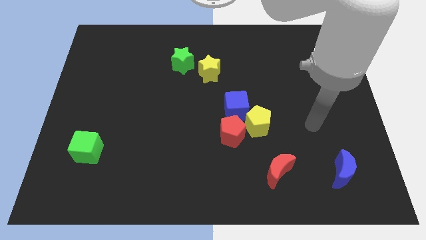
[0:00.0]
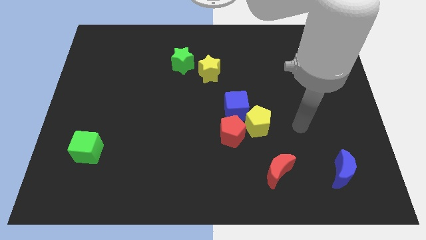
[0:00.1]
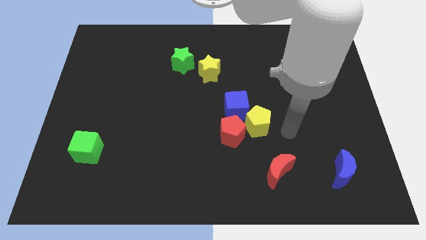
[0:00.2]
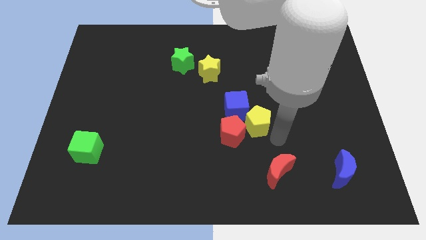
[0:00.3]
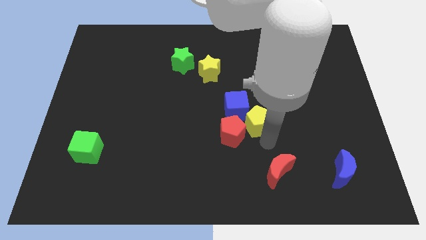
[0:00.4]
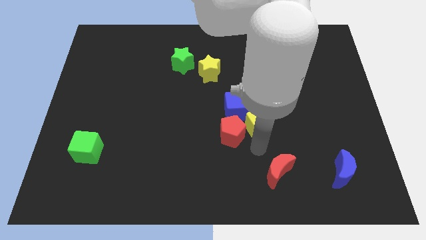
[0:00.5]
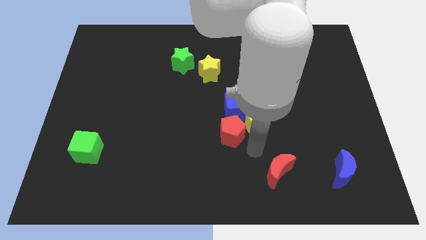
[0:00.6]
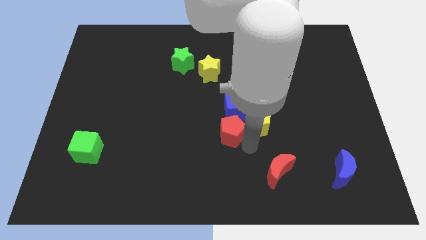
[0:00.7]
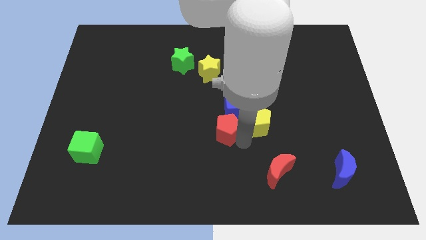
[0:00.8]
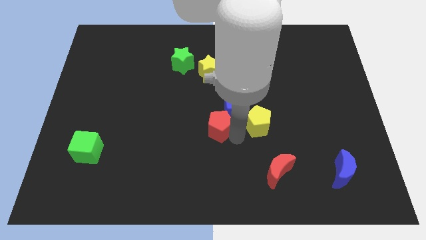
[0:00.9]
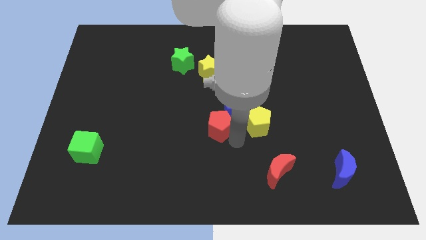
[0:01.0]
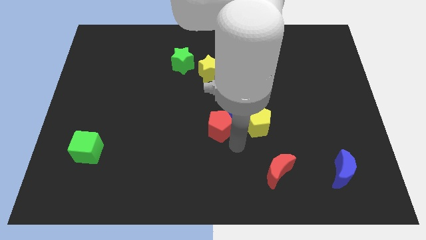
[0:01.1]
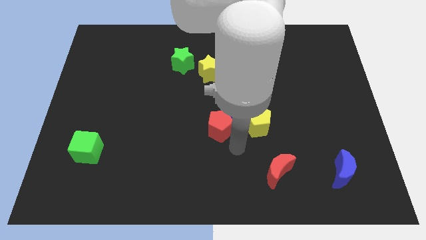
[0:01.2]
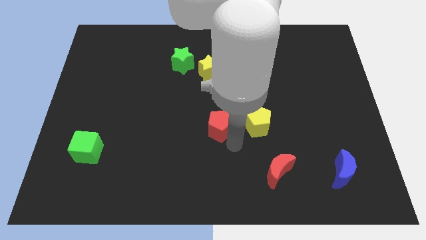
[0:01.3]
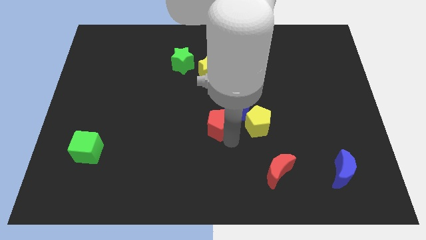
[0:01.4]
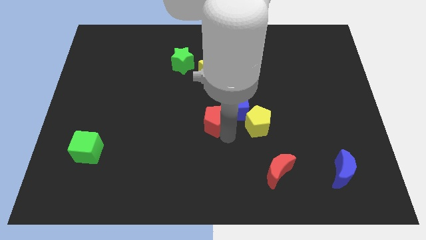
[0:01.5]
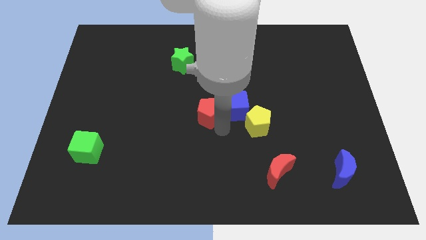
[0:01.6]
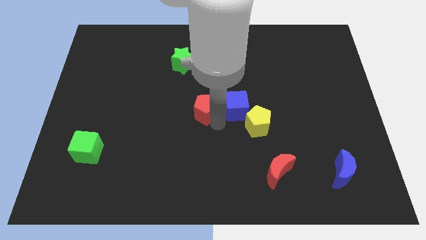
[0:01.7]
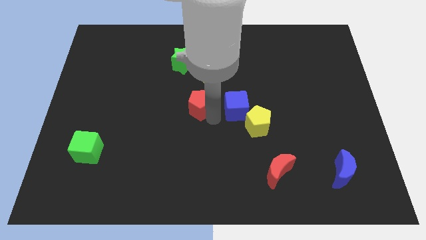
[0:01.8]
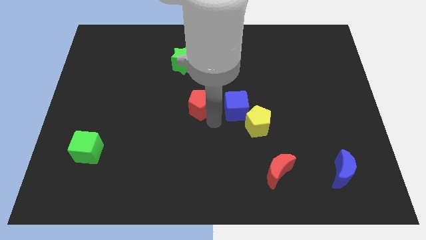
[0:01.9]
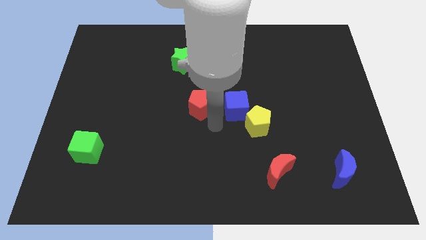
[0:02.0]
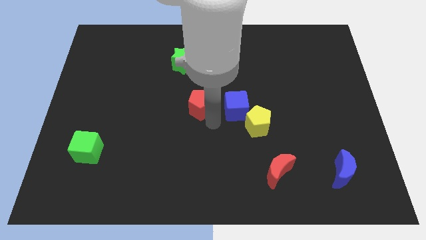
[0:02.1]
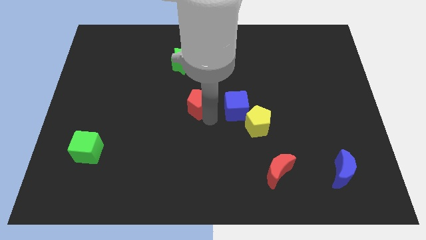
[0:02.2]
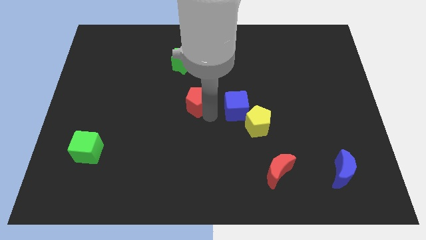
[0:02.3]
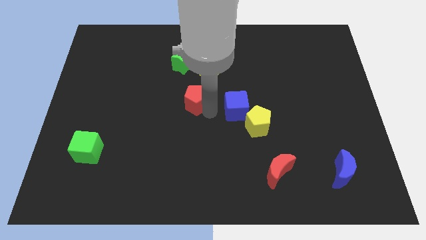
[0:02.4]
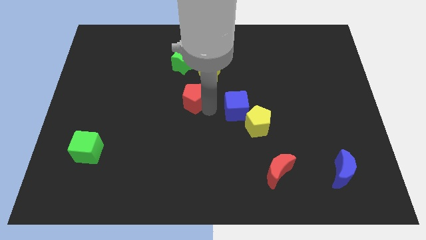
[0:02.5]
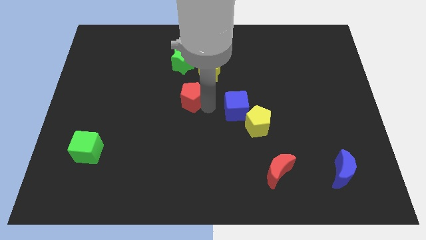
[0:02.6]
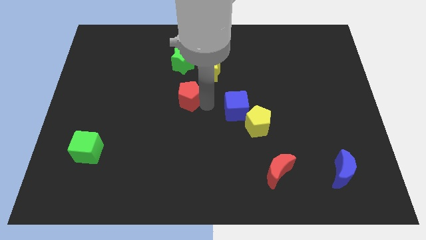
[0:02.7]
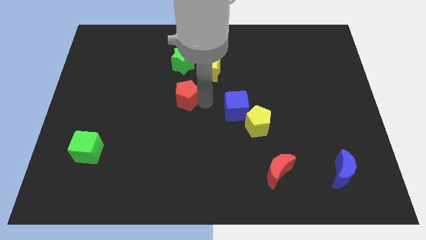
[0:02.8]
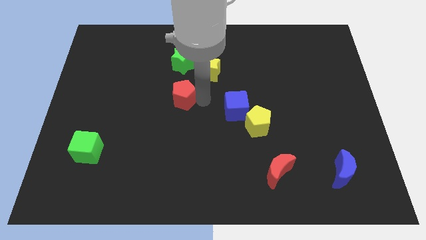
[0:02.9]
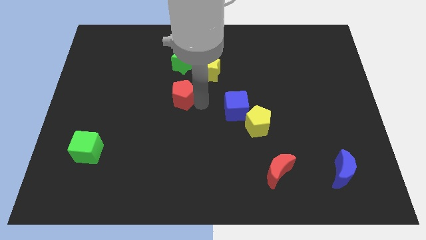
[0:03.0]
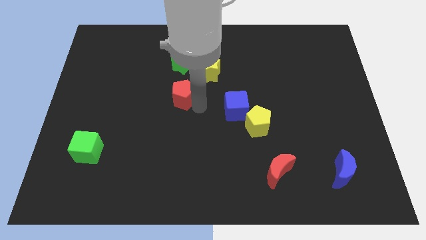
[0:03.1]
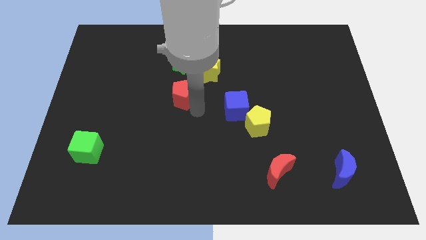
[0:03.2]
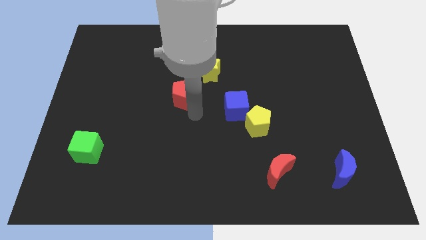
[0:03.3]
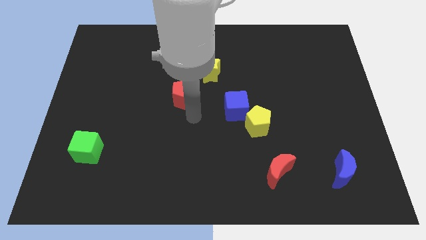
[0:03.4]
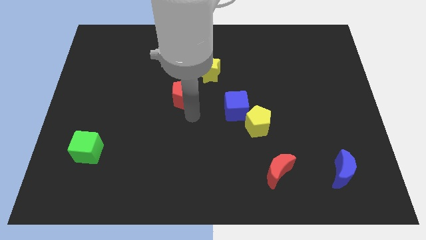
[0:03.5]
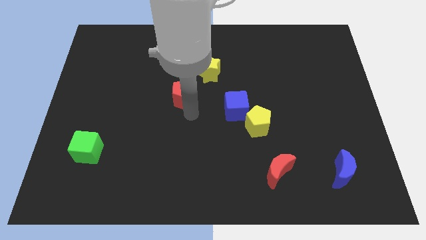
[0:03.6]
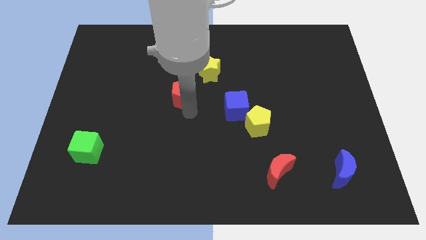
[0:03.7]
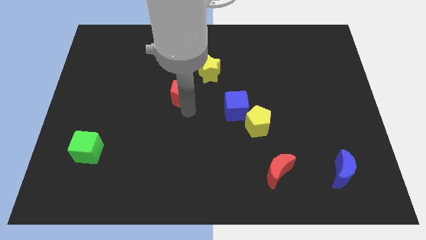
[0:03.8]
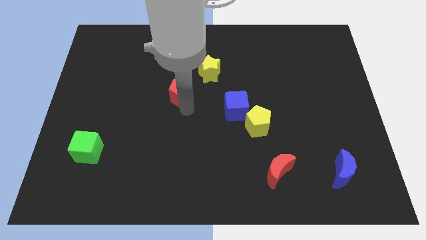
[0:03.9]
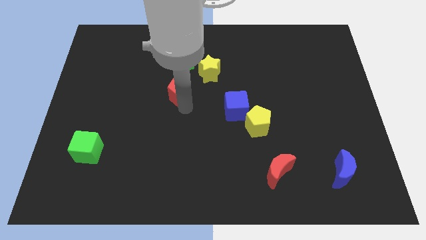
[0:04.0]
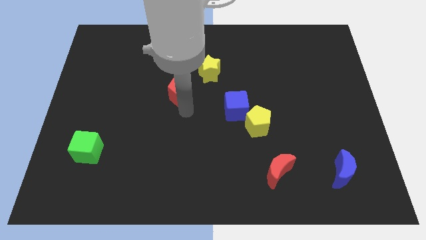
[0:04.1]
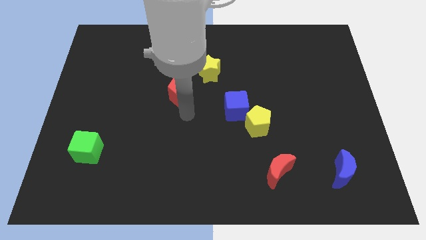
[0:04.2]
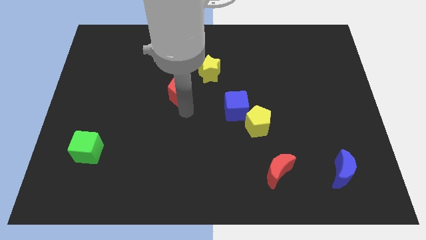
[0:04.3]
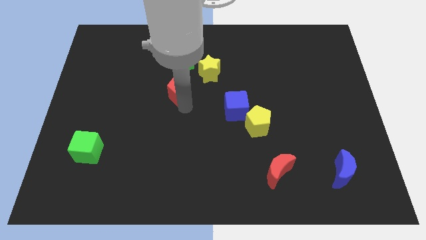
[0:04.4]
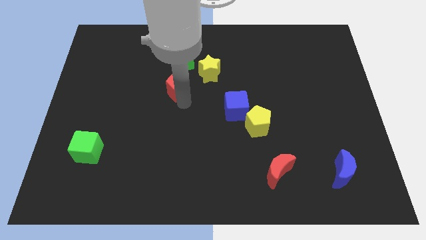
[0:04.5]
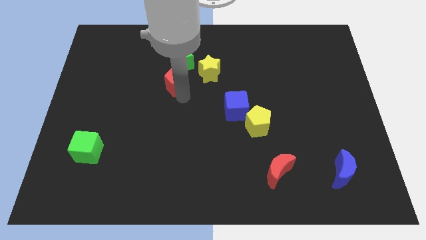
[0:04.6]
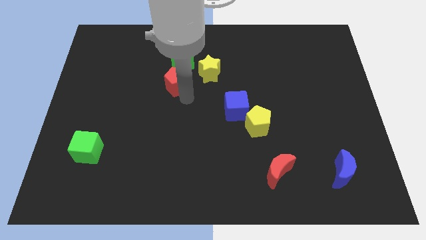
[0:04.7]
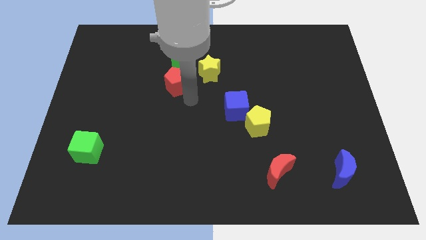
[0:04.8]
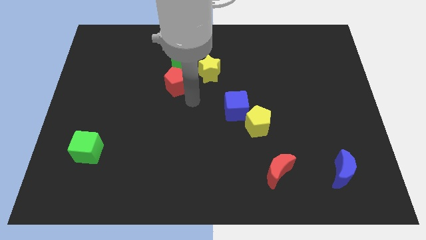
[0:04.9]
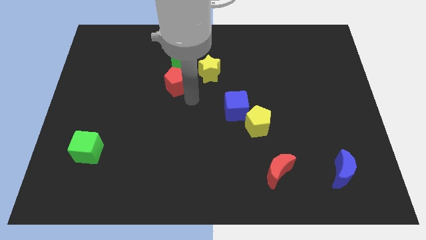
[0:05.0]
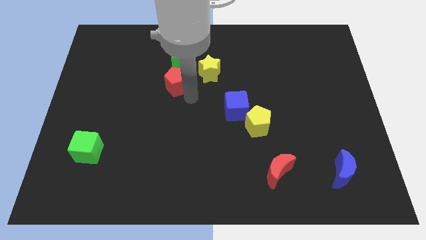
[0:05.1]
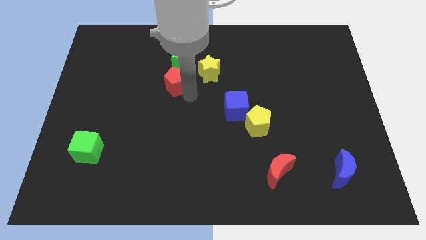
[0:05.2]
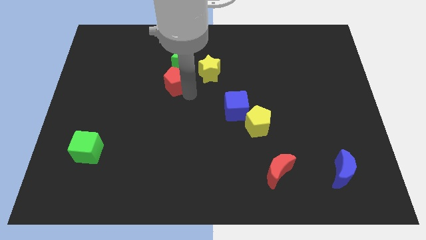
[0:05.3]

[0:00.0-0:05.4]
move the red pentagon up and then left

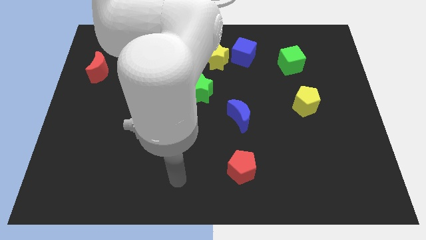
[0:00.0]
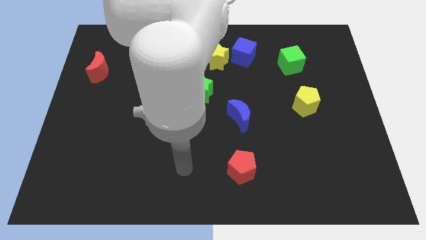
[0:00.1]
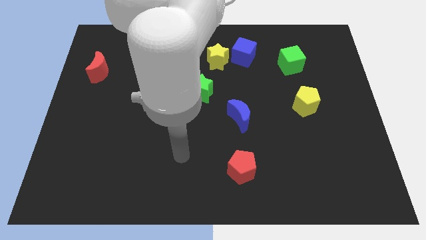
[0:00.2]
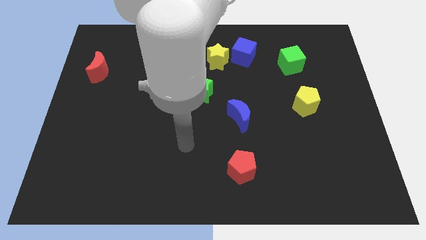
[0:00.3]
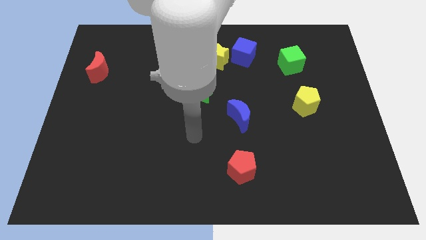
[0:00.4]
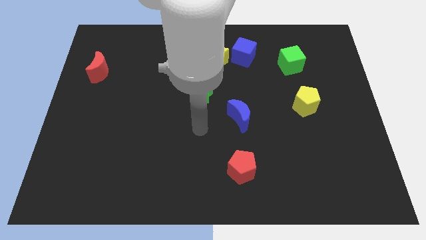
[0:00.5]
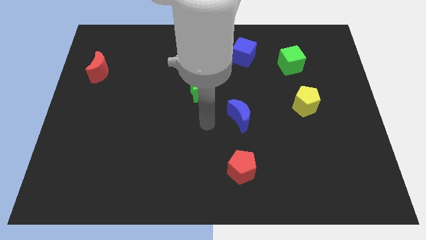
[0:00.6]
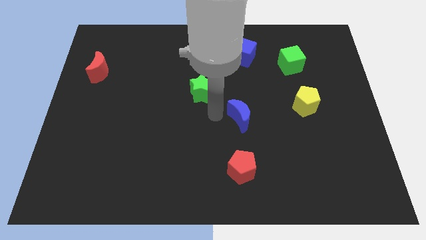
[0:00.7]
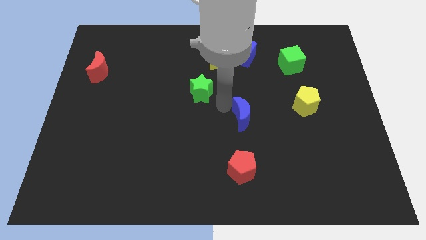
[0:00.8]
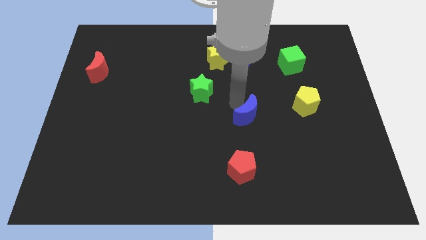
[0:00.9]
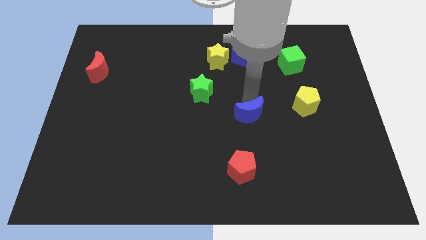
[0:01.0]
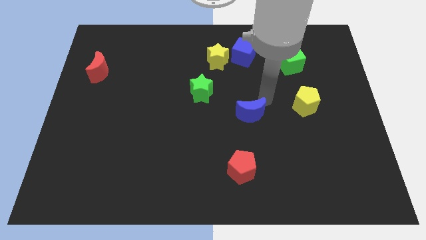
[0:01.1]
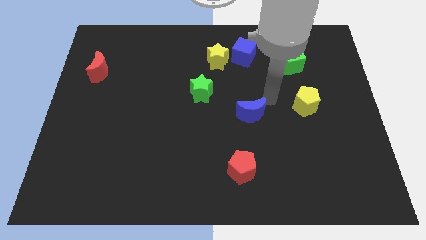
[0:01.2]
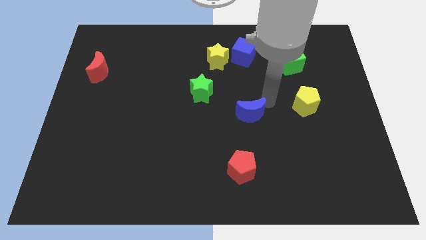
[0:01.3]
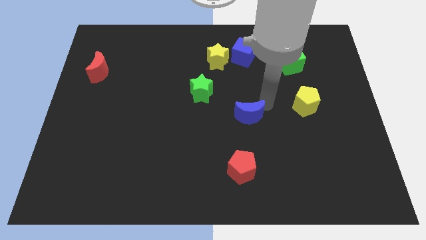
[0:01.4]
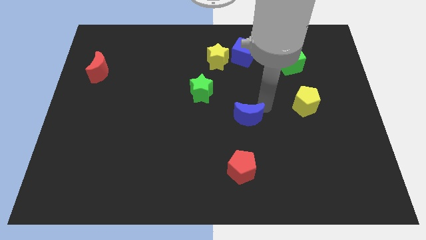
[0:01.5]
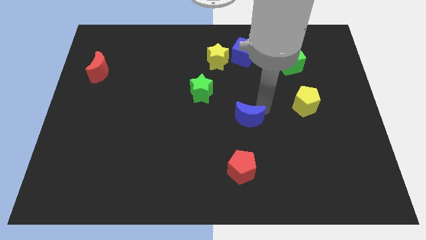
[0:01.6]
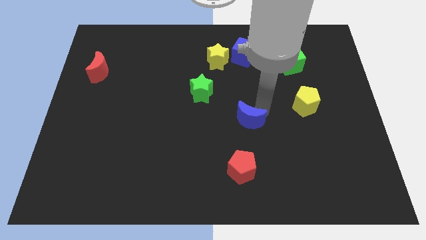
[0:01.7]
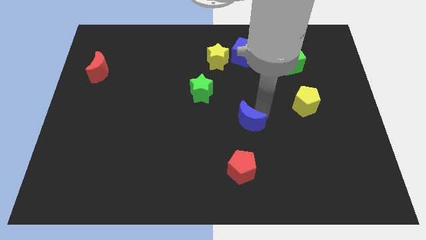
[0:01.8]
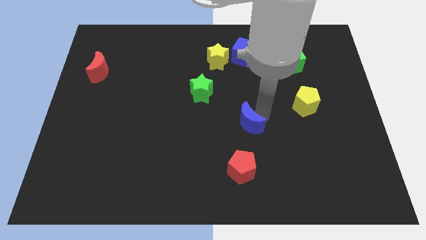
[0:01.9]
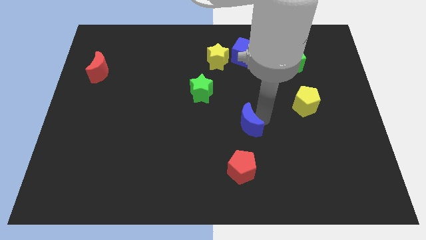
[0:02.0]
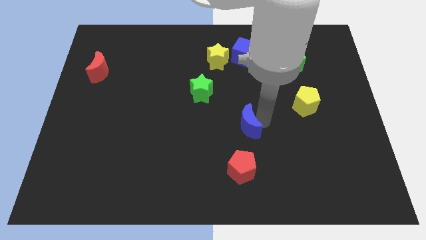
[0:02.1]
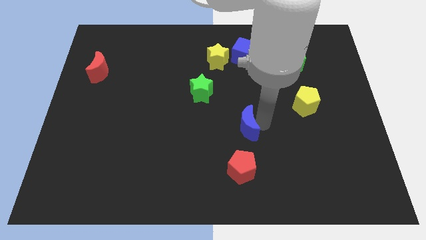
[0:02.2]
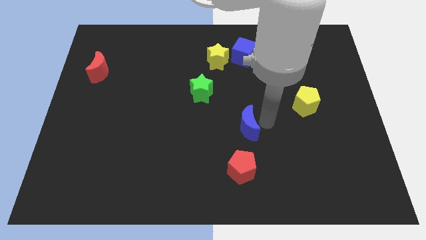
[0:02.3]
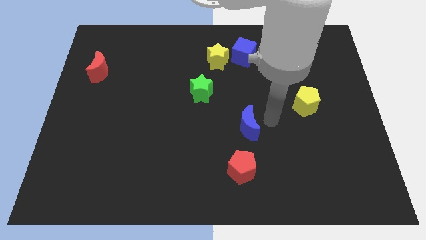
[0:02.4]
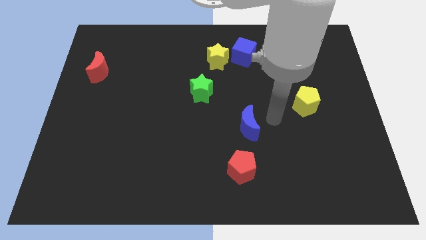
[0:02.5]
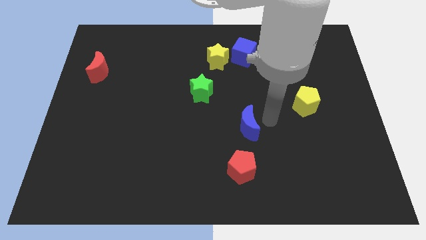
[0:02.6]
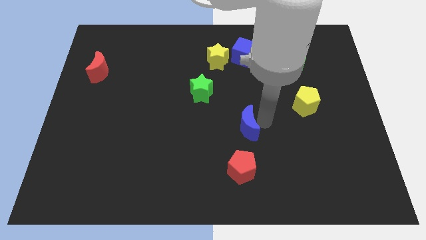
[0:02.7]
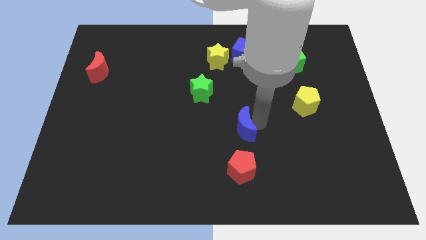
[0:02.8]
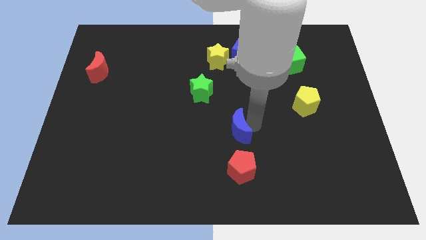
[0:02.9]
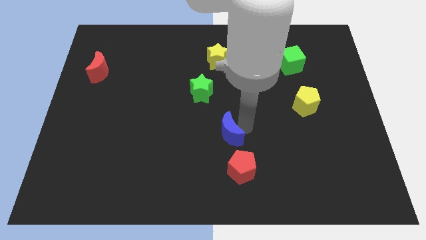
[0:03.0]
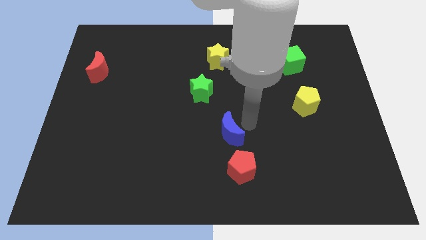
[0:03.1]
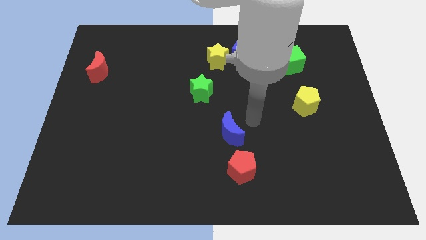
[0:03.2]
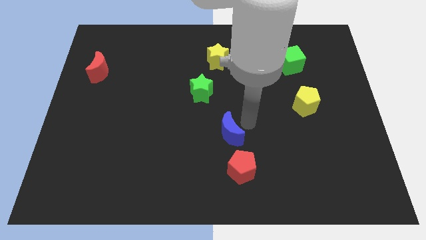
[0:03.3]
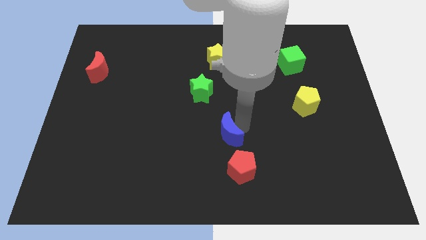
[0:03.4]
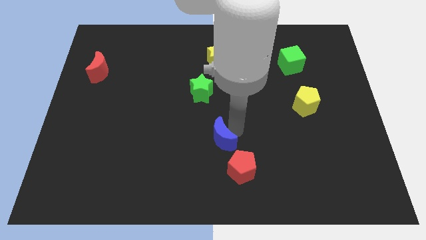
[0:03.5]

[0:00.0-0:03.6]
slide the blue moon a little bit downwards and to the left diagonally
